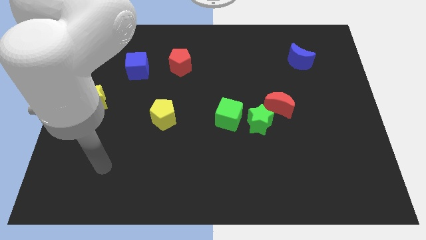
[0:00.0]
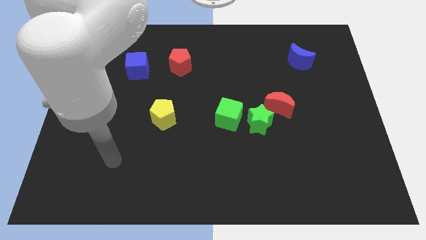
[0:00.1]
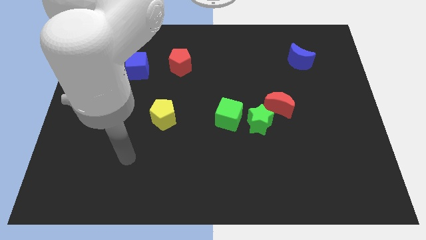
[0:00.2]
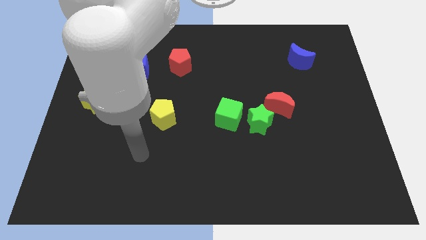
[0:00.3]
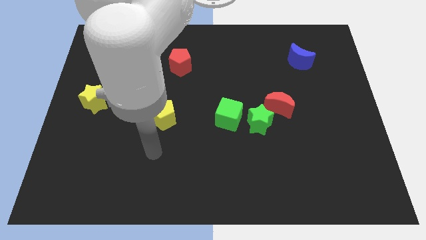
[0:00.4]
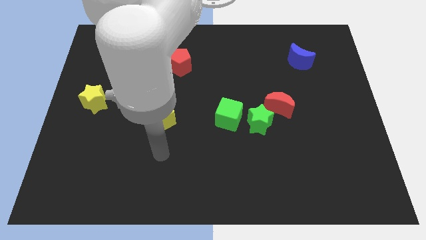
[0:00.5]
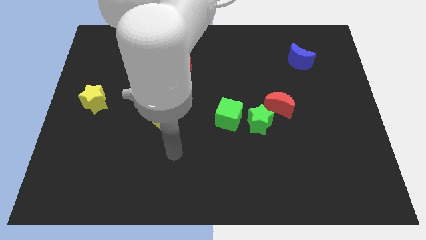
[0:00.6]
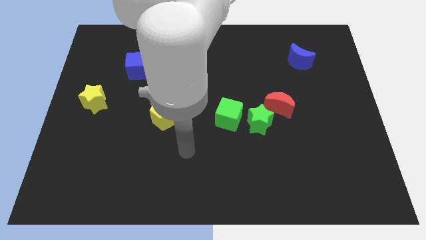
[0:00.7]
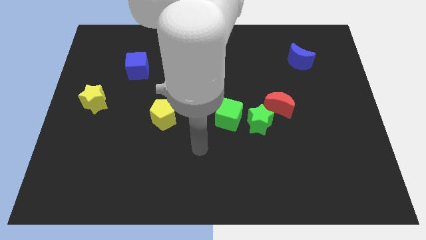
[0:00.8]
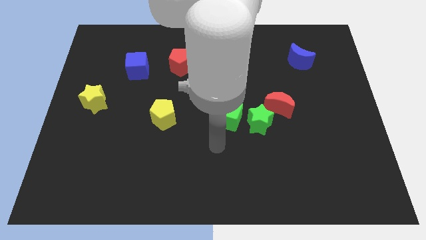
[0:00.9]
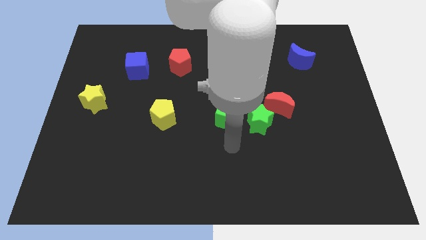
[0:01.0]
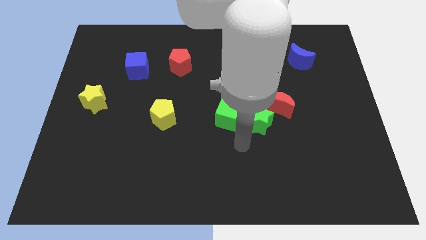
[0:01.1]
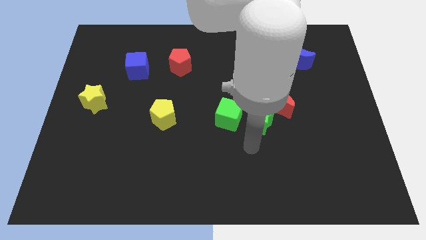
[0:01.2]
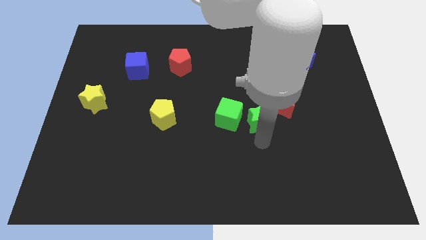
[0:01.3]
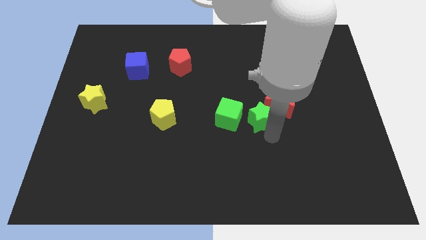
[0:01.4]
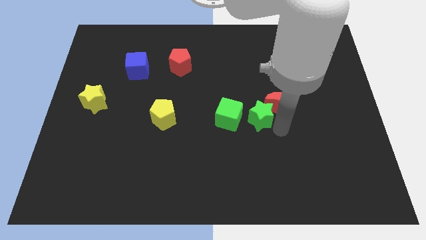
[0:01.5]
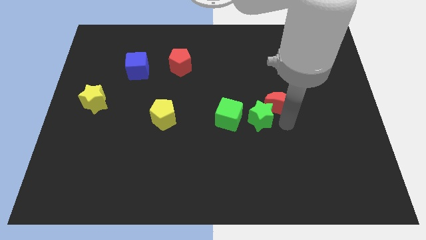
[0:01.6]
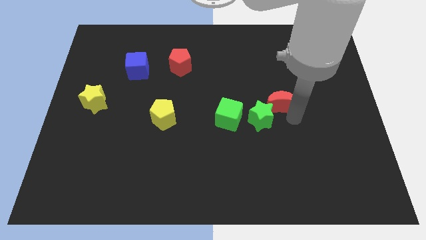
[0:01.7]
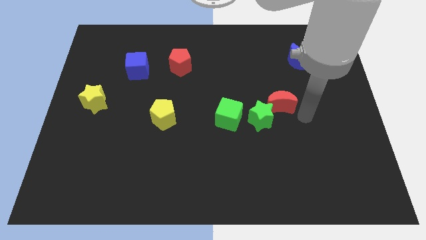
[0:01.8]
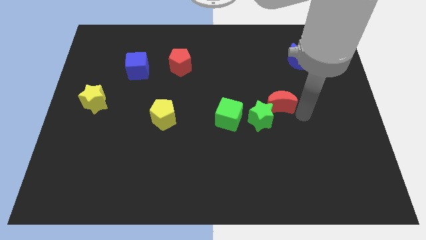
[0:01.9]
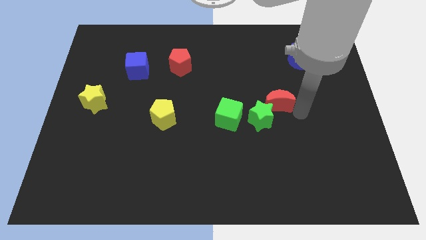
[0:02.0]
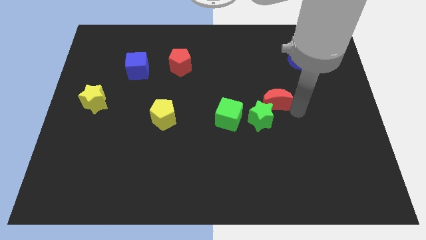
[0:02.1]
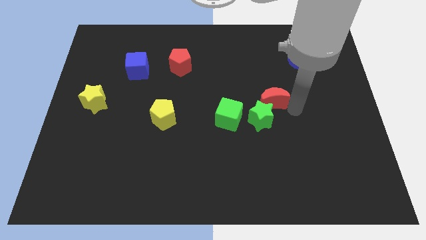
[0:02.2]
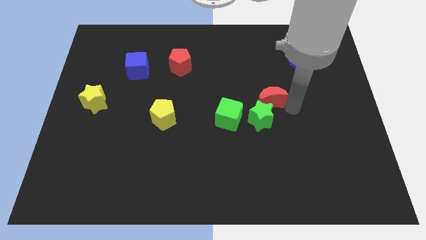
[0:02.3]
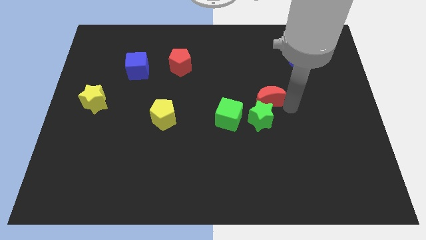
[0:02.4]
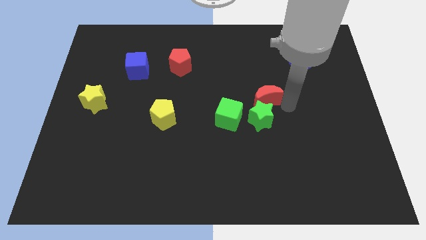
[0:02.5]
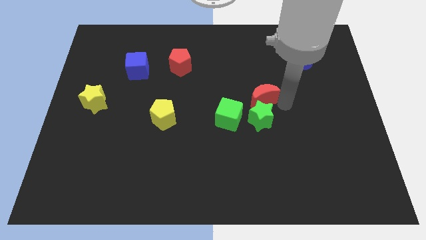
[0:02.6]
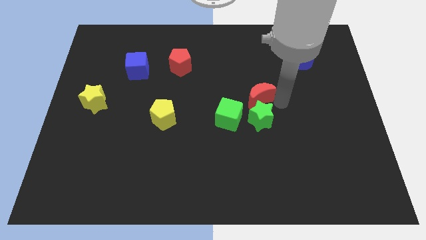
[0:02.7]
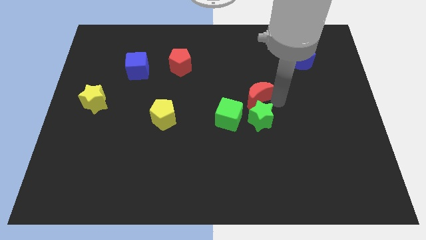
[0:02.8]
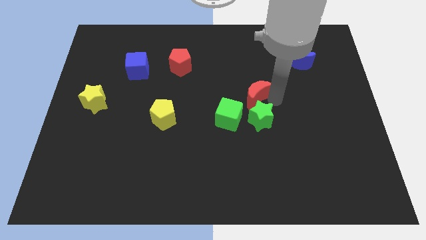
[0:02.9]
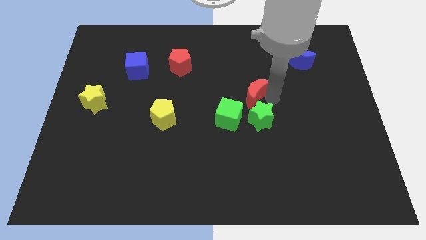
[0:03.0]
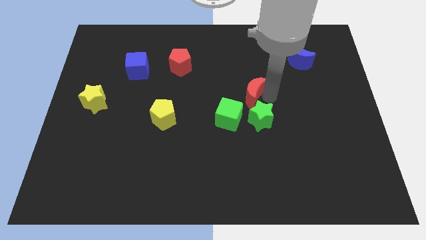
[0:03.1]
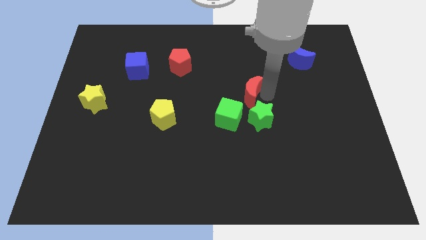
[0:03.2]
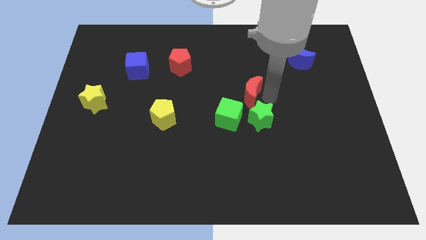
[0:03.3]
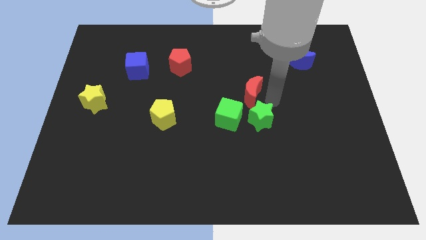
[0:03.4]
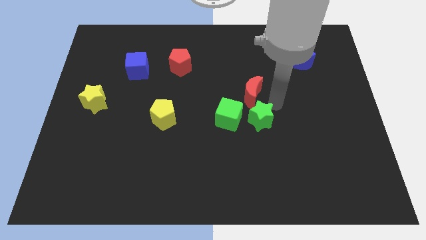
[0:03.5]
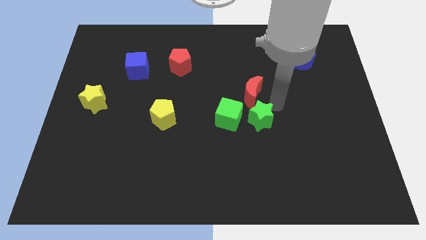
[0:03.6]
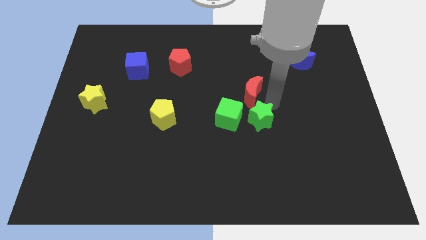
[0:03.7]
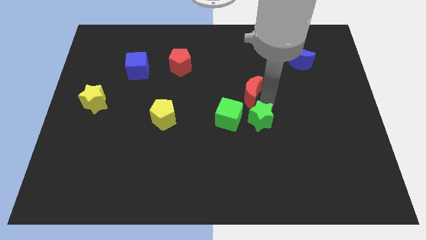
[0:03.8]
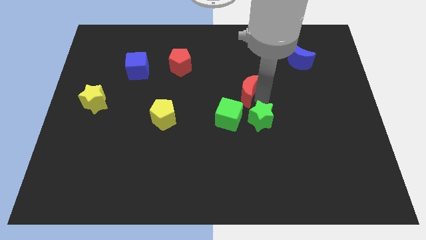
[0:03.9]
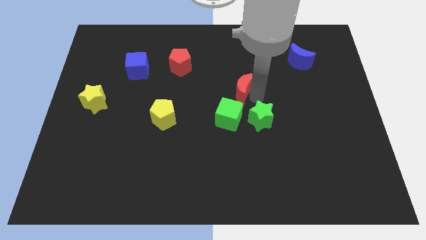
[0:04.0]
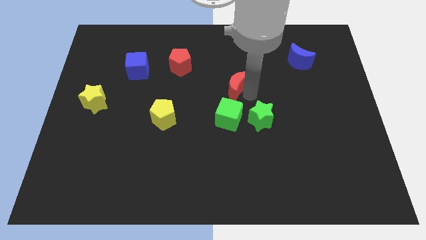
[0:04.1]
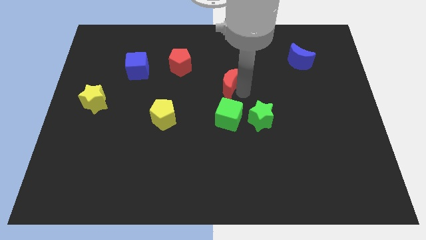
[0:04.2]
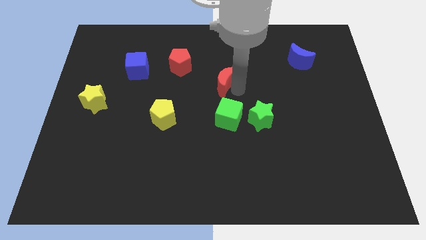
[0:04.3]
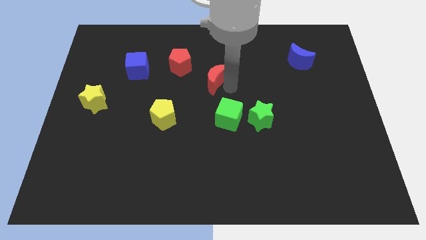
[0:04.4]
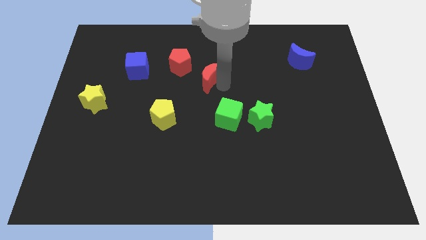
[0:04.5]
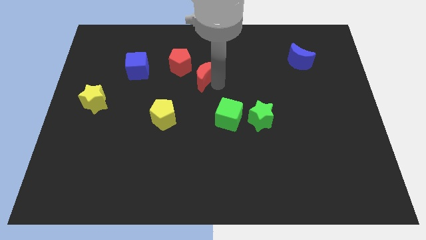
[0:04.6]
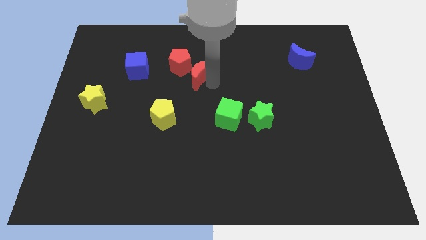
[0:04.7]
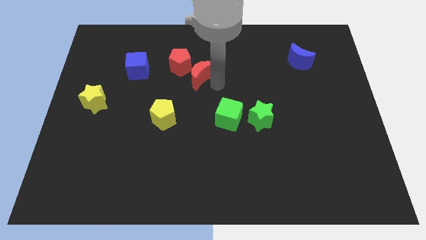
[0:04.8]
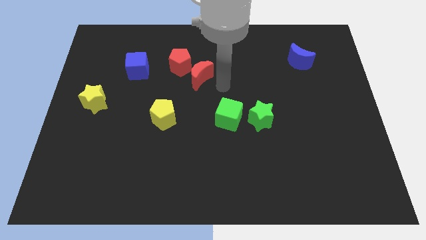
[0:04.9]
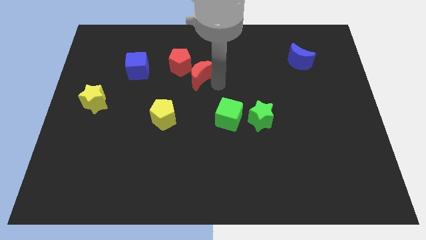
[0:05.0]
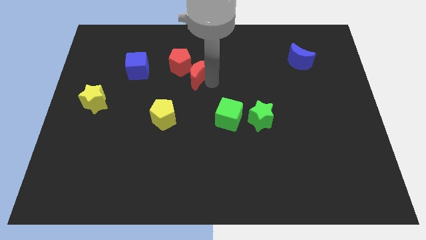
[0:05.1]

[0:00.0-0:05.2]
push the red moon right of the blue cube

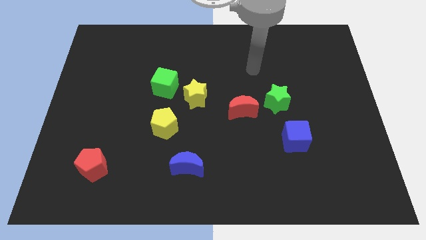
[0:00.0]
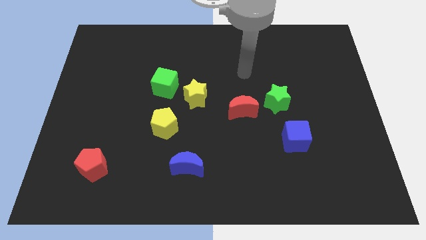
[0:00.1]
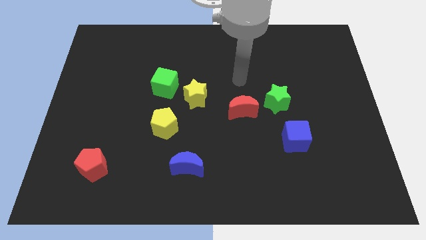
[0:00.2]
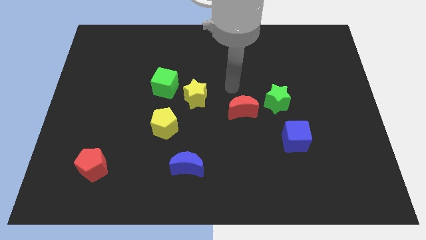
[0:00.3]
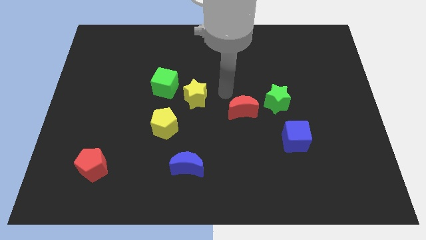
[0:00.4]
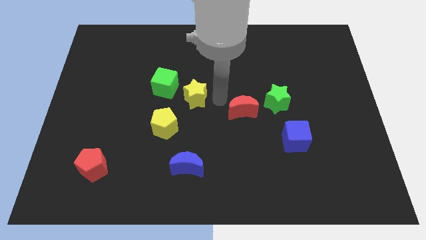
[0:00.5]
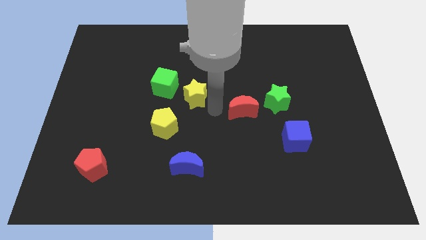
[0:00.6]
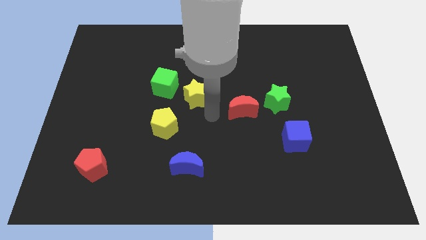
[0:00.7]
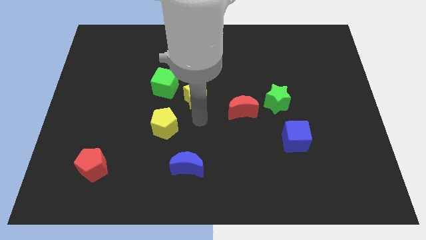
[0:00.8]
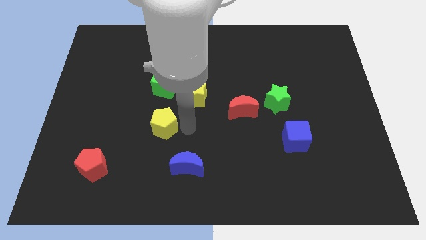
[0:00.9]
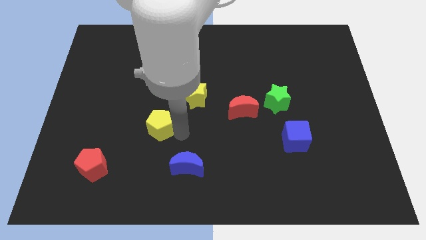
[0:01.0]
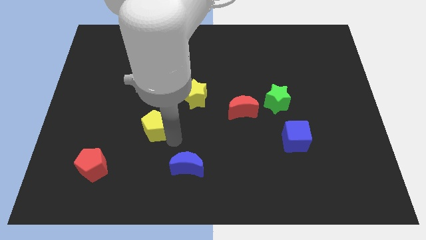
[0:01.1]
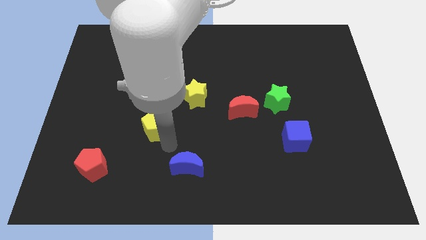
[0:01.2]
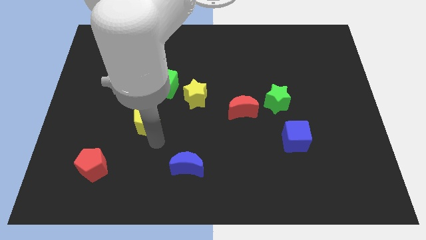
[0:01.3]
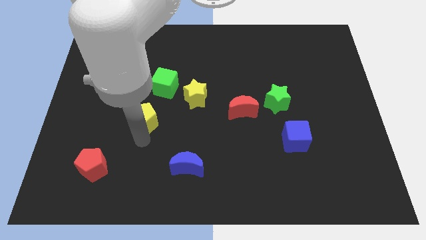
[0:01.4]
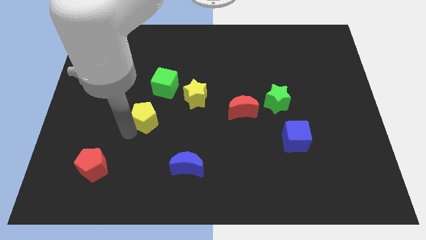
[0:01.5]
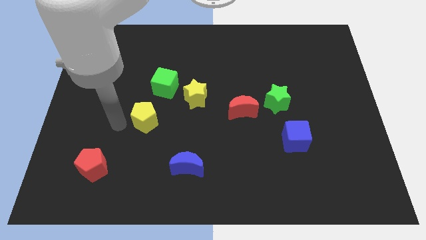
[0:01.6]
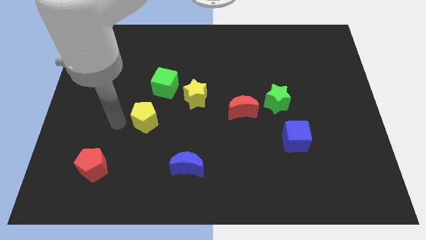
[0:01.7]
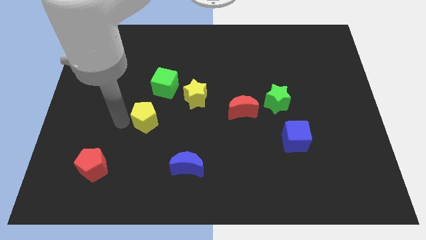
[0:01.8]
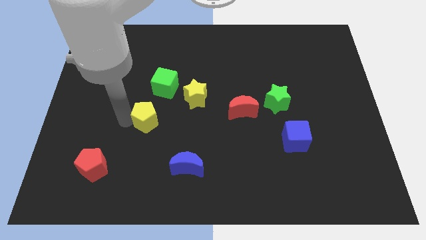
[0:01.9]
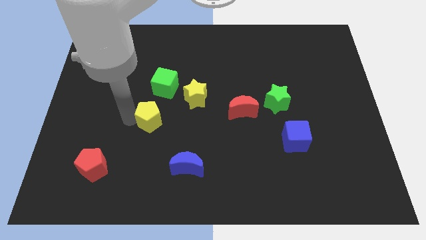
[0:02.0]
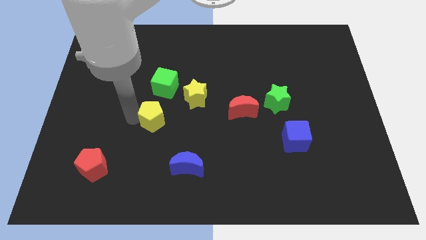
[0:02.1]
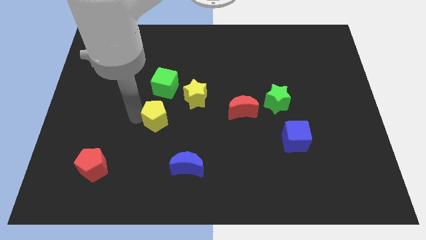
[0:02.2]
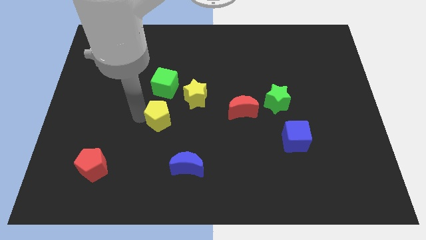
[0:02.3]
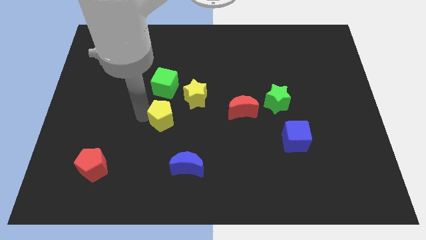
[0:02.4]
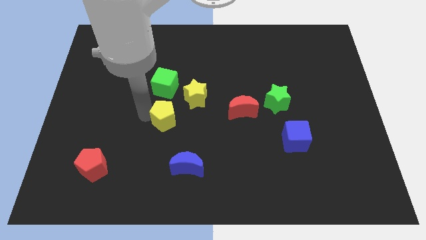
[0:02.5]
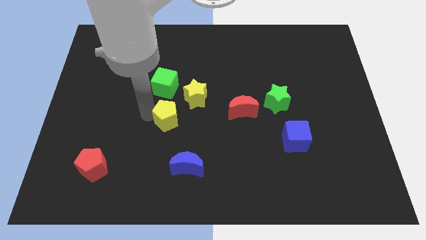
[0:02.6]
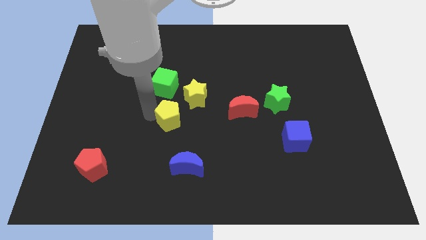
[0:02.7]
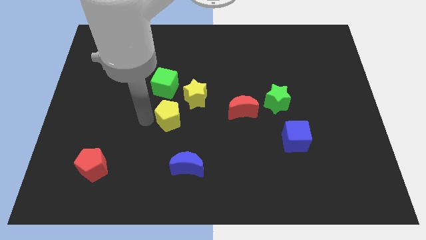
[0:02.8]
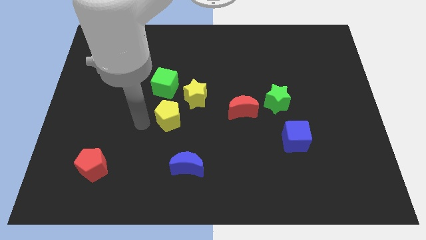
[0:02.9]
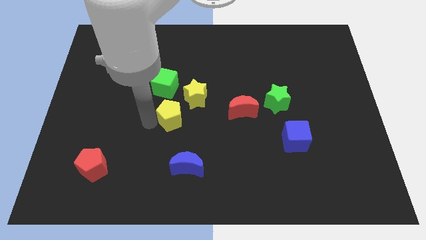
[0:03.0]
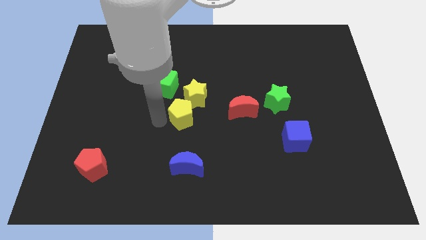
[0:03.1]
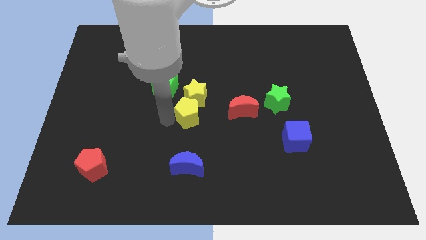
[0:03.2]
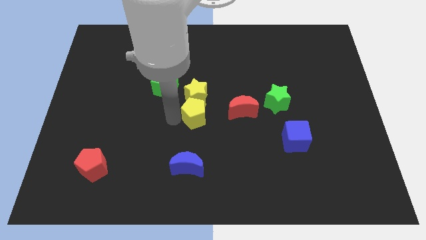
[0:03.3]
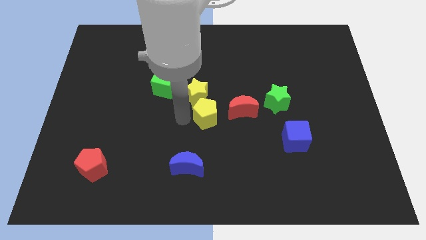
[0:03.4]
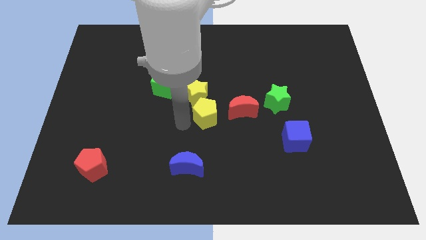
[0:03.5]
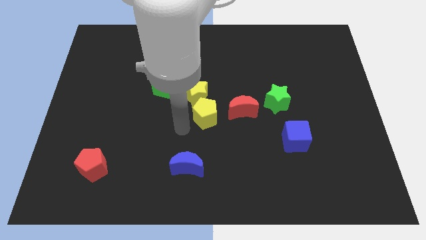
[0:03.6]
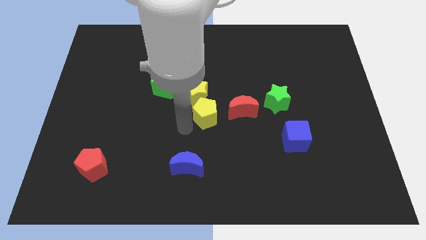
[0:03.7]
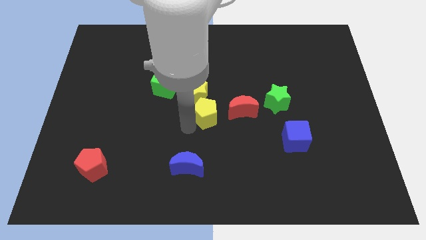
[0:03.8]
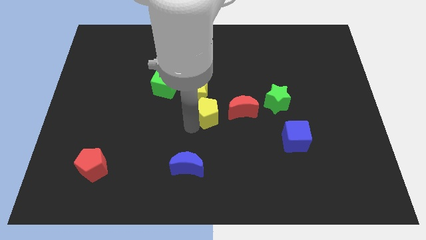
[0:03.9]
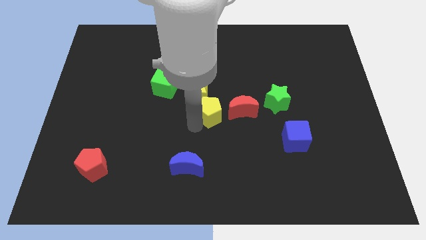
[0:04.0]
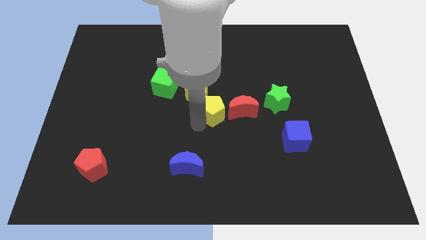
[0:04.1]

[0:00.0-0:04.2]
move the yellow pentagon left of the green star
